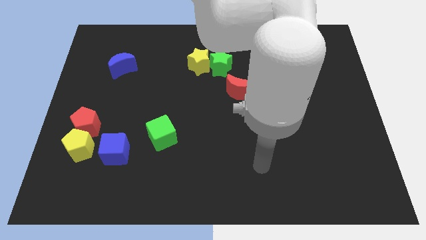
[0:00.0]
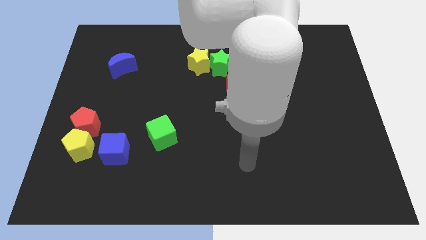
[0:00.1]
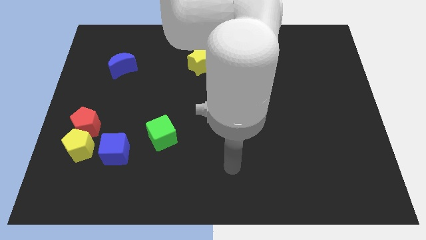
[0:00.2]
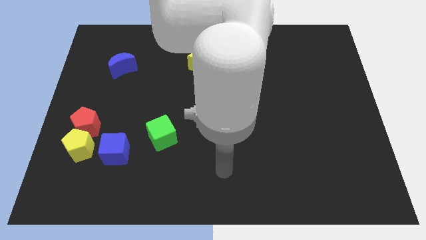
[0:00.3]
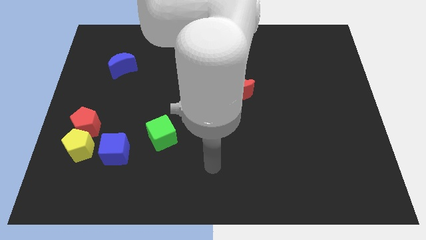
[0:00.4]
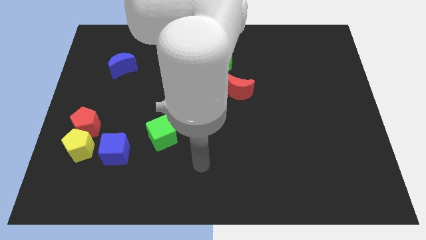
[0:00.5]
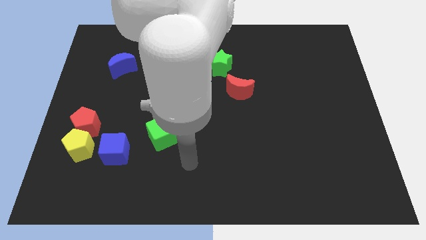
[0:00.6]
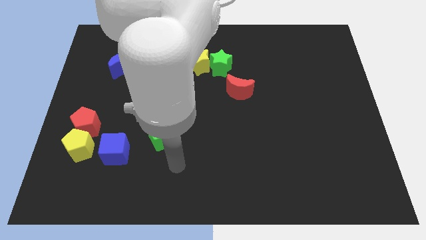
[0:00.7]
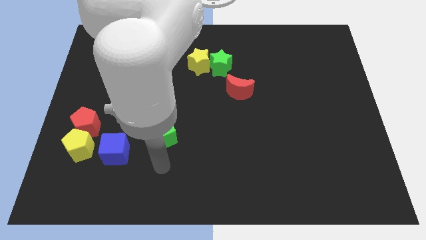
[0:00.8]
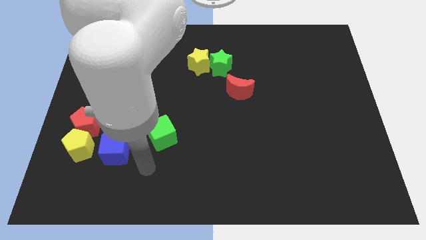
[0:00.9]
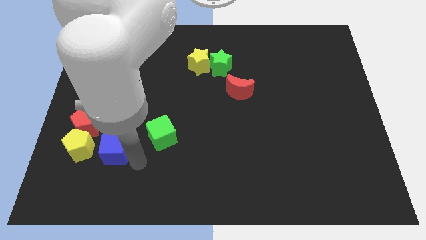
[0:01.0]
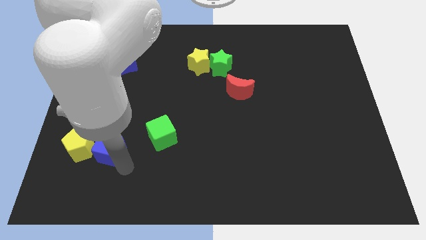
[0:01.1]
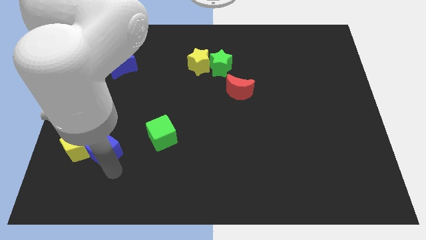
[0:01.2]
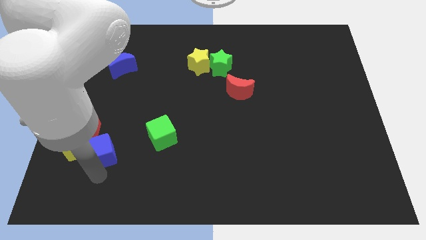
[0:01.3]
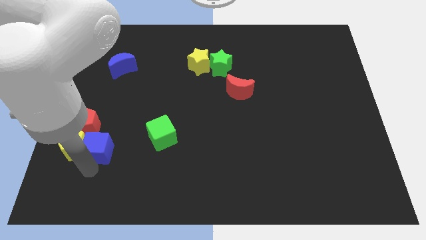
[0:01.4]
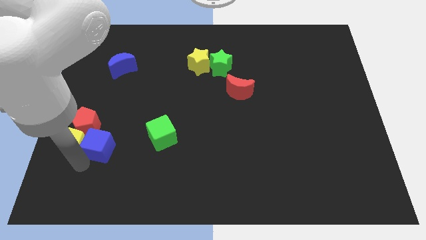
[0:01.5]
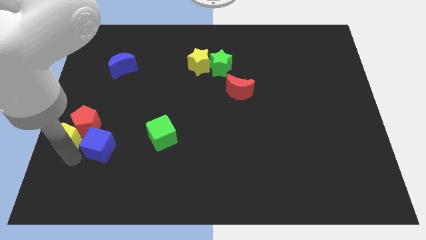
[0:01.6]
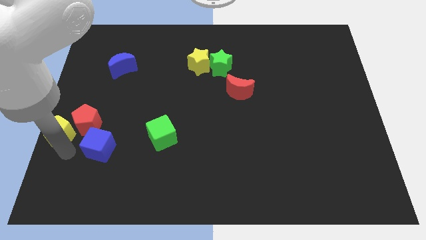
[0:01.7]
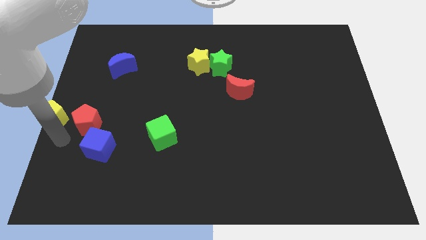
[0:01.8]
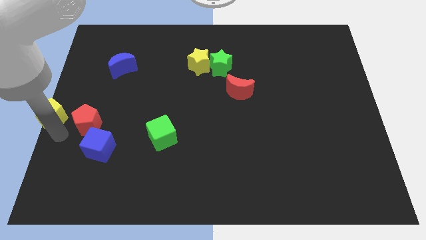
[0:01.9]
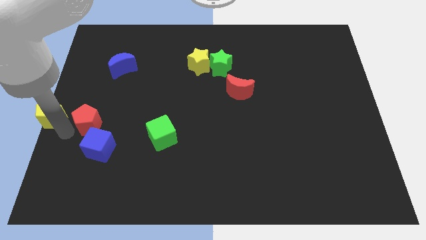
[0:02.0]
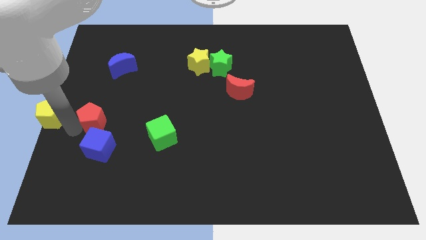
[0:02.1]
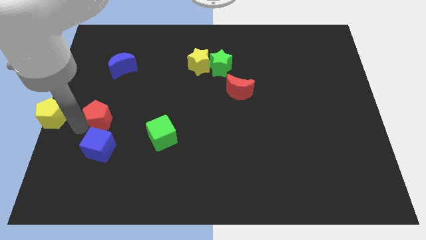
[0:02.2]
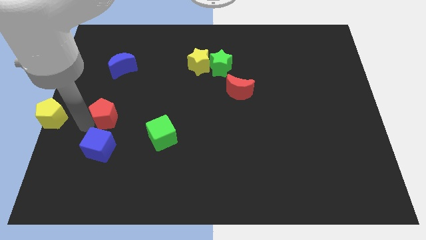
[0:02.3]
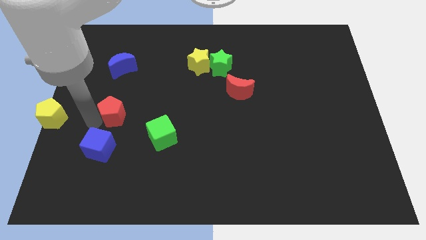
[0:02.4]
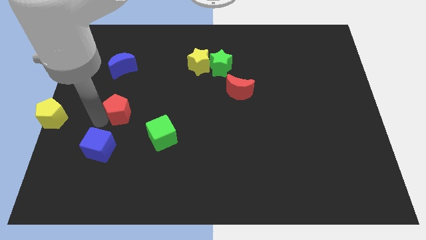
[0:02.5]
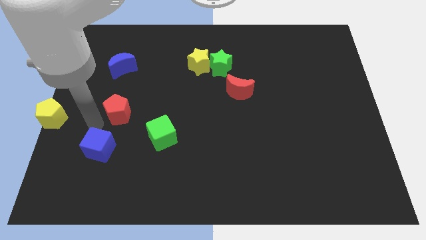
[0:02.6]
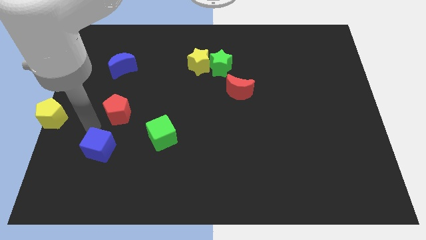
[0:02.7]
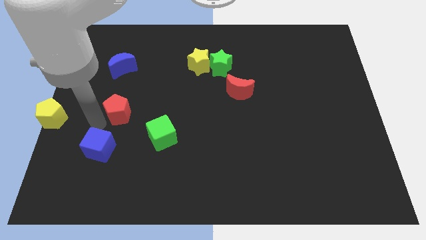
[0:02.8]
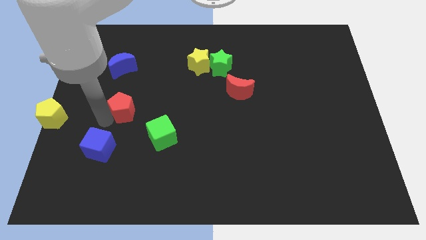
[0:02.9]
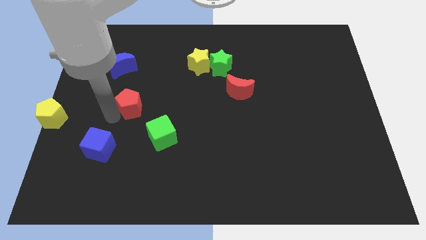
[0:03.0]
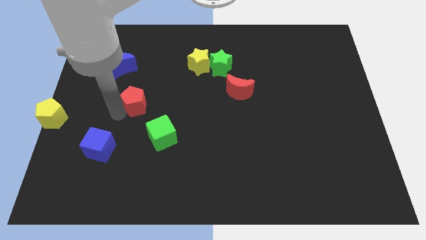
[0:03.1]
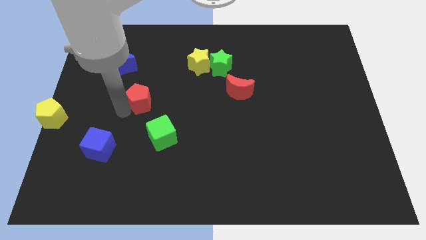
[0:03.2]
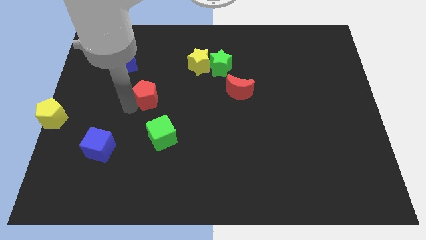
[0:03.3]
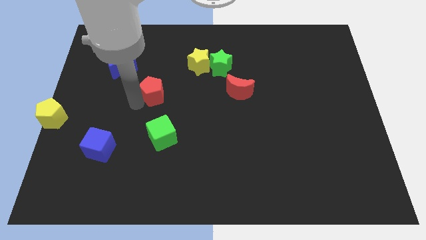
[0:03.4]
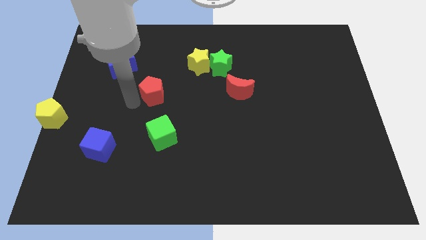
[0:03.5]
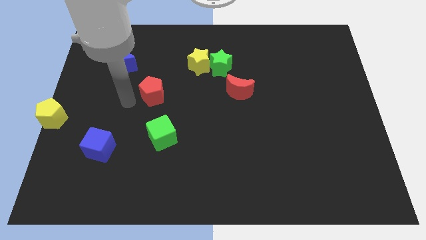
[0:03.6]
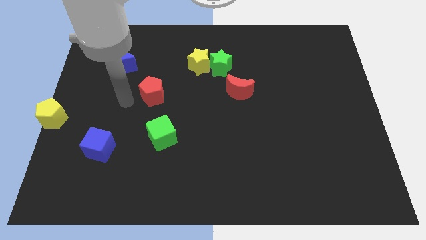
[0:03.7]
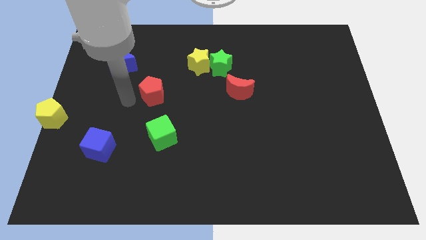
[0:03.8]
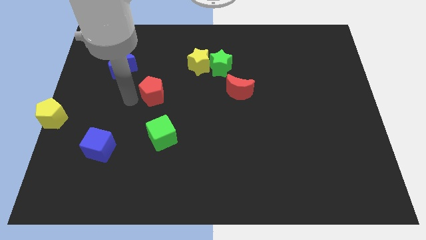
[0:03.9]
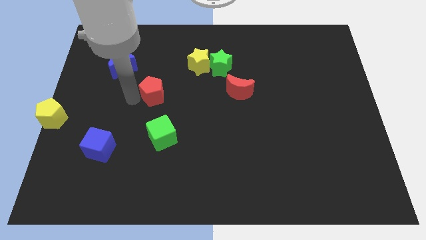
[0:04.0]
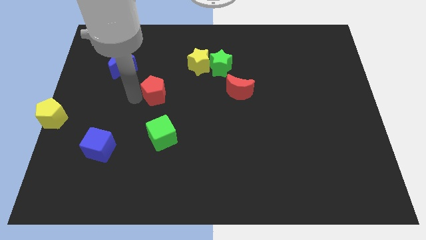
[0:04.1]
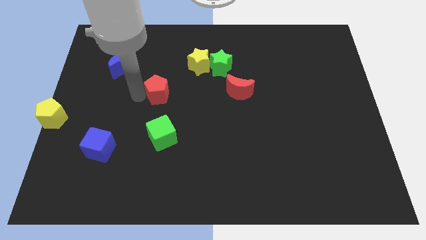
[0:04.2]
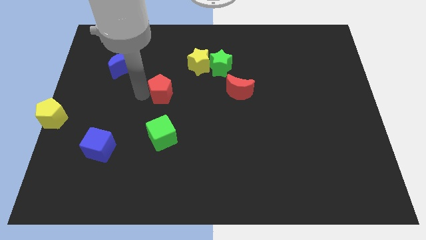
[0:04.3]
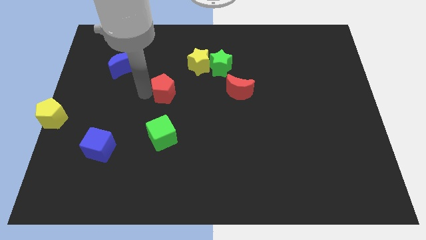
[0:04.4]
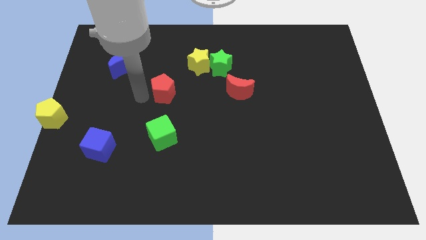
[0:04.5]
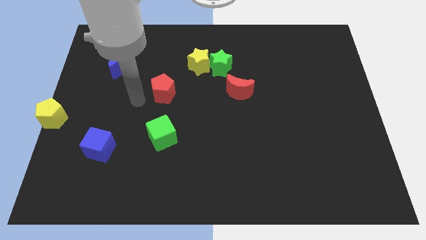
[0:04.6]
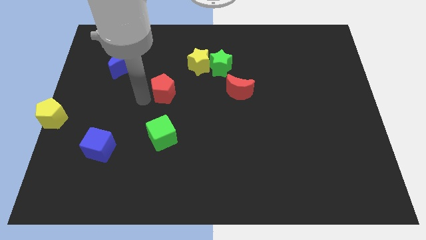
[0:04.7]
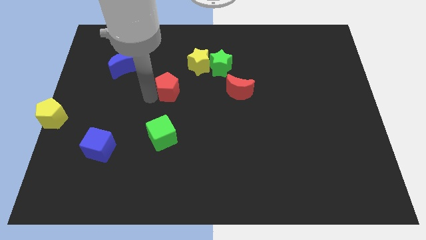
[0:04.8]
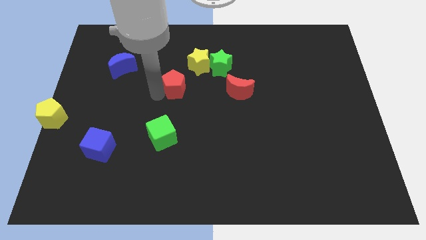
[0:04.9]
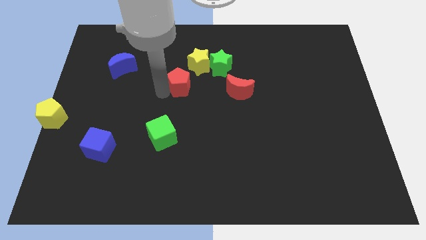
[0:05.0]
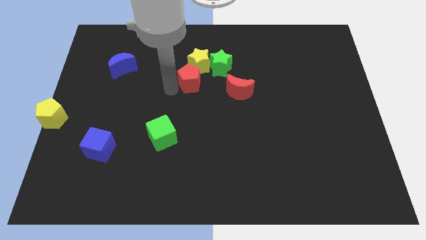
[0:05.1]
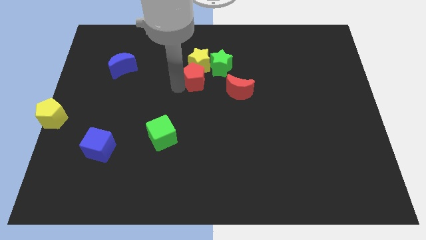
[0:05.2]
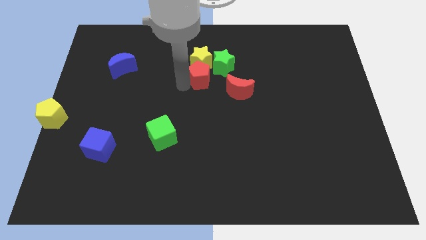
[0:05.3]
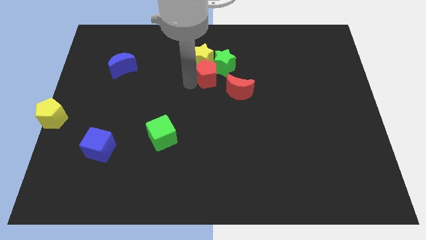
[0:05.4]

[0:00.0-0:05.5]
slide the red pentagon next to the green star

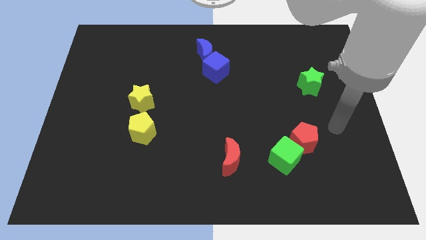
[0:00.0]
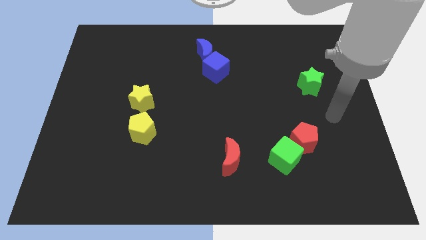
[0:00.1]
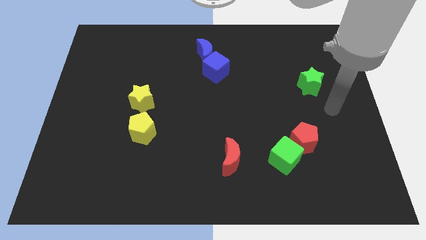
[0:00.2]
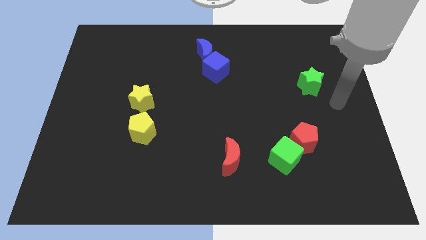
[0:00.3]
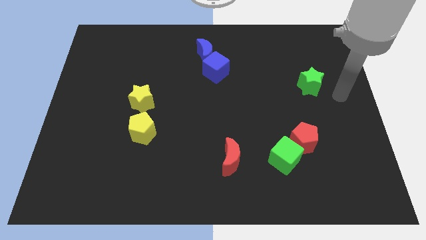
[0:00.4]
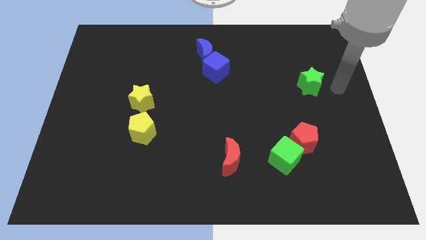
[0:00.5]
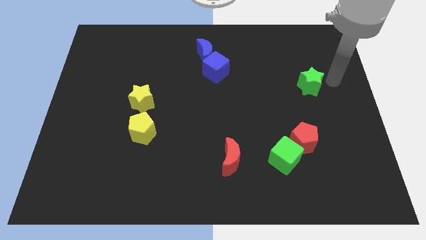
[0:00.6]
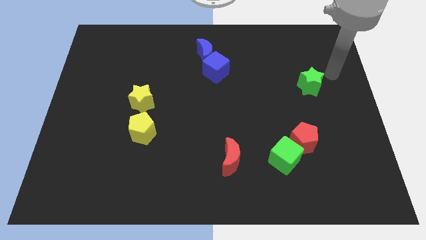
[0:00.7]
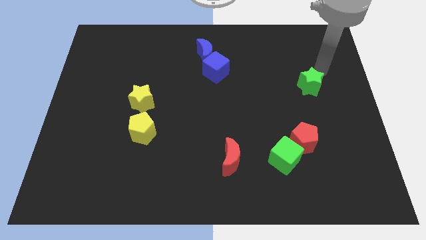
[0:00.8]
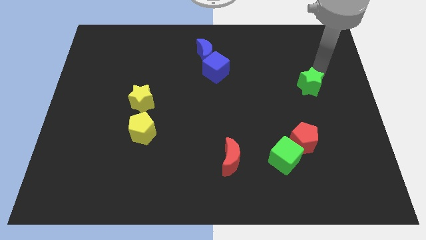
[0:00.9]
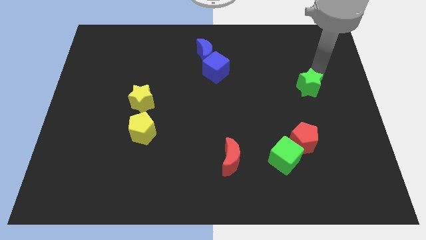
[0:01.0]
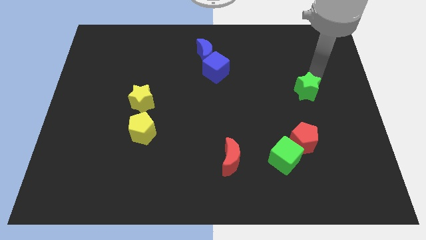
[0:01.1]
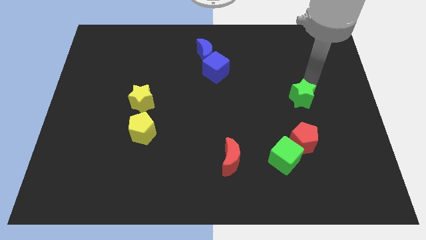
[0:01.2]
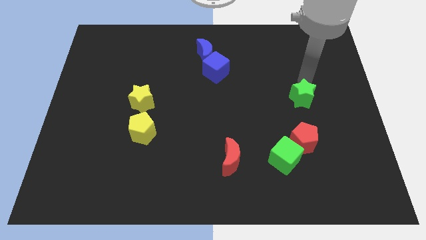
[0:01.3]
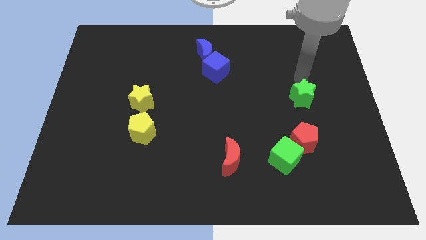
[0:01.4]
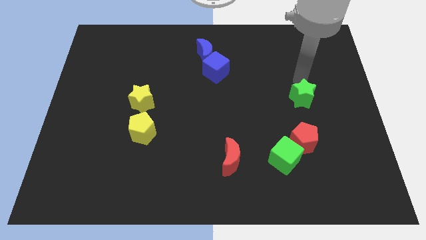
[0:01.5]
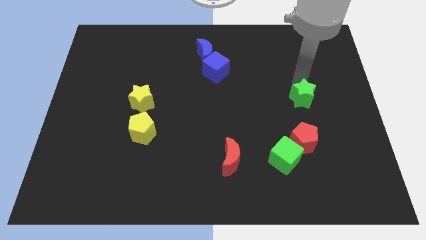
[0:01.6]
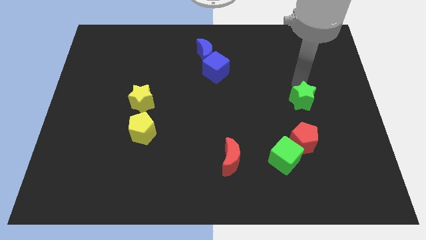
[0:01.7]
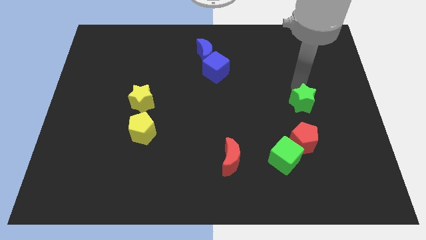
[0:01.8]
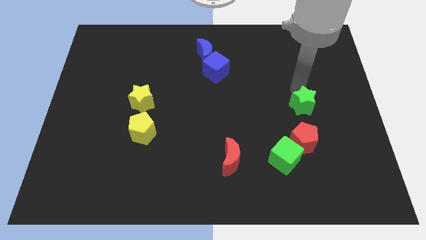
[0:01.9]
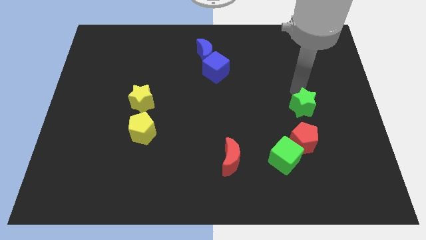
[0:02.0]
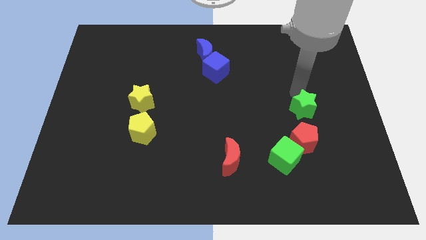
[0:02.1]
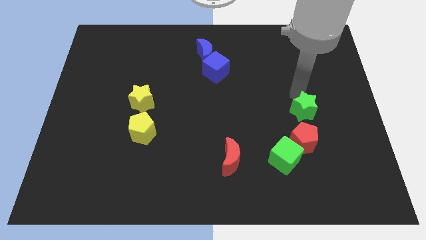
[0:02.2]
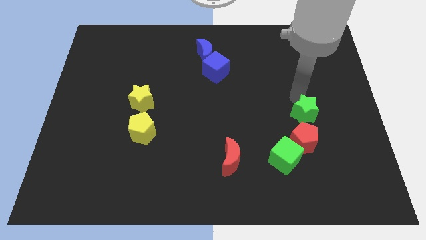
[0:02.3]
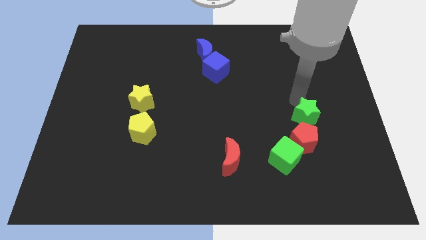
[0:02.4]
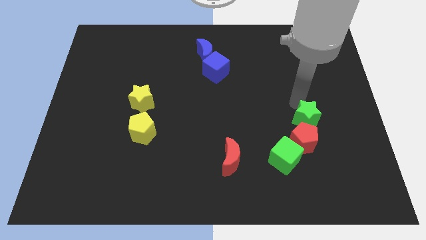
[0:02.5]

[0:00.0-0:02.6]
put the green star towards the red pentagon

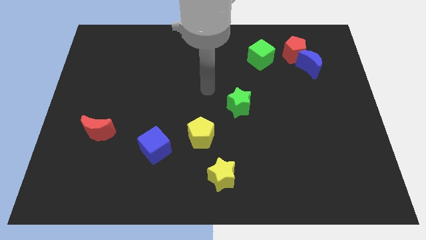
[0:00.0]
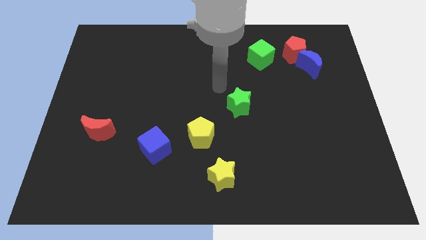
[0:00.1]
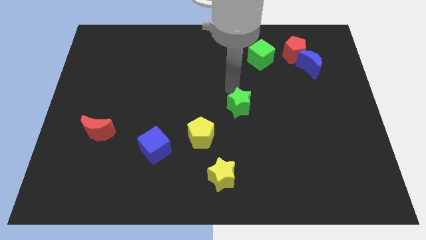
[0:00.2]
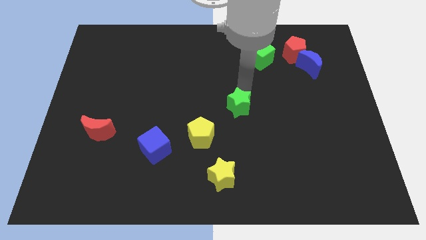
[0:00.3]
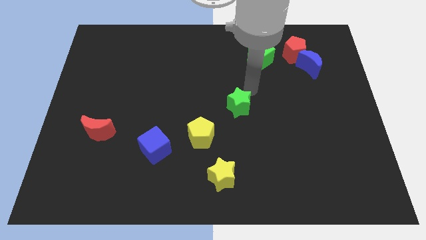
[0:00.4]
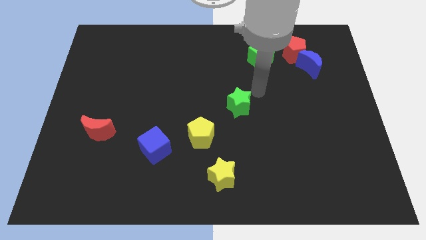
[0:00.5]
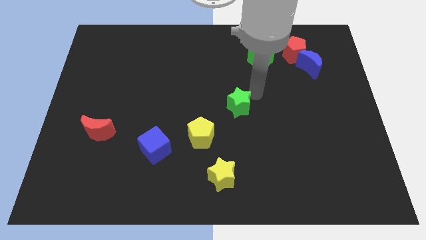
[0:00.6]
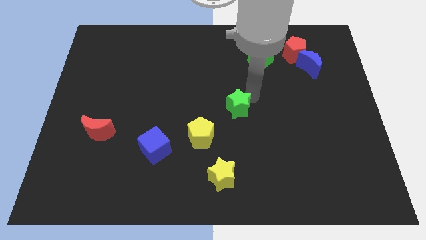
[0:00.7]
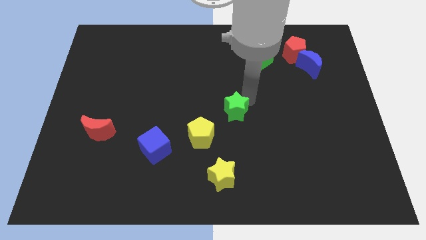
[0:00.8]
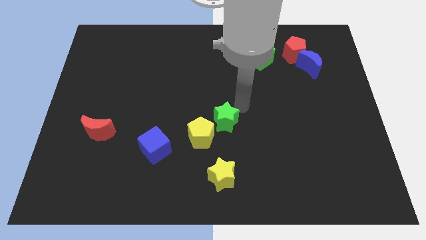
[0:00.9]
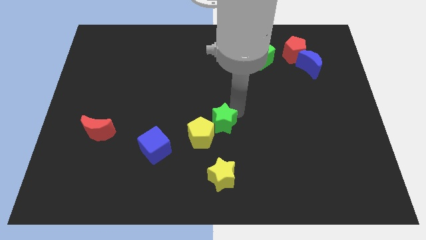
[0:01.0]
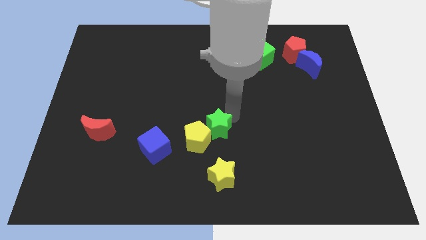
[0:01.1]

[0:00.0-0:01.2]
push the green star close to the yellow pentagon
